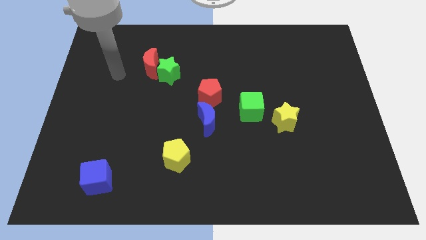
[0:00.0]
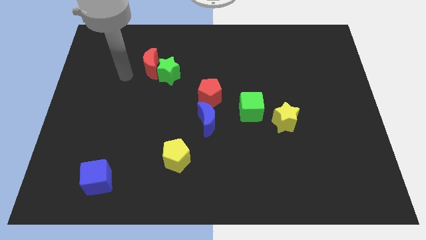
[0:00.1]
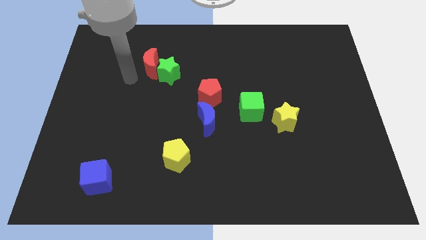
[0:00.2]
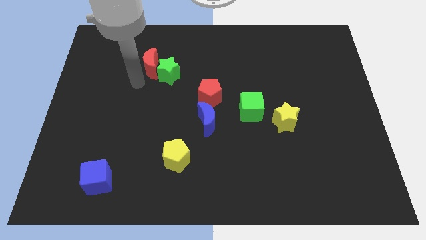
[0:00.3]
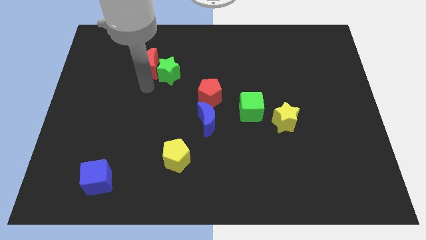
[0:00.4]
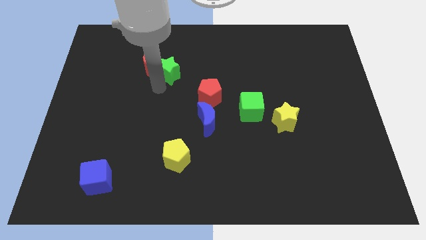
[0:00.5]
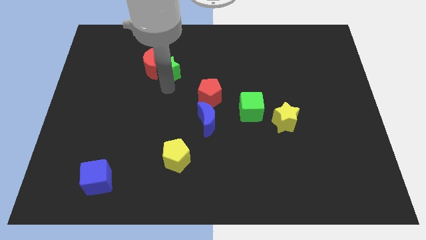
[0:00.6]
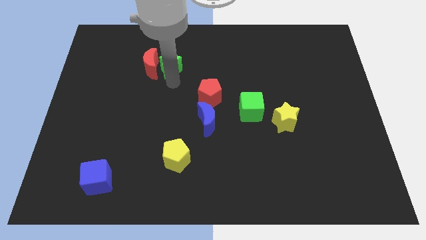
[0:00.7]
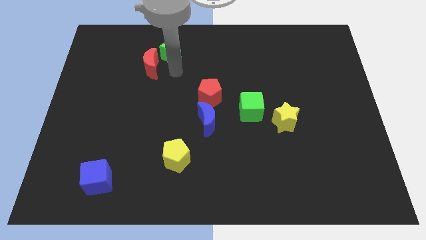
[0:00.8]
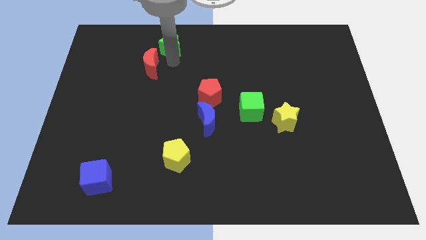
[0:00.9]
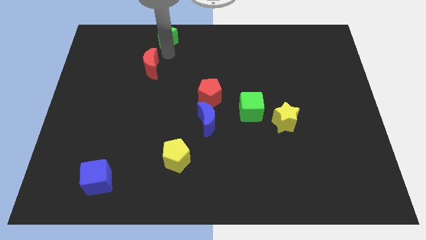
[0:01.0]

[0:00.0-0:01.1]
separate the red moon from the green star

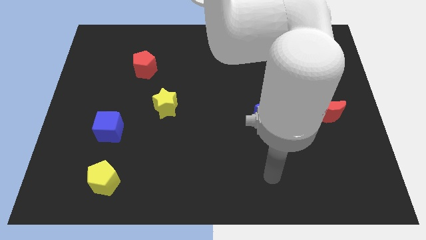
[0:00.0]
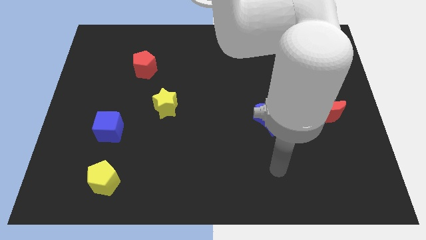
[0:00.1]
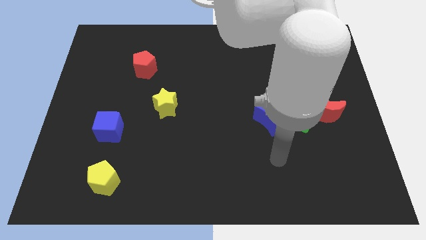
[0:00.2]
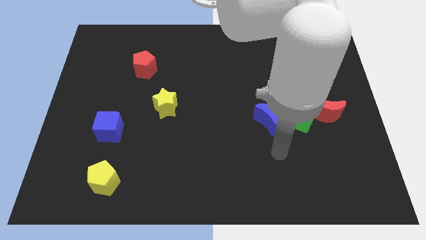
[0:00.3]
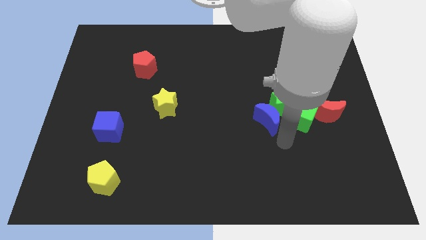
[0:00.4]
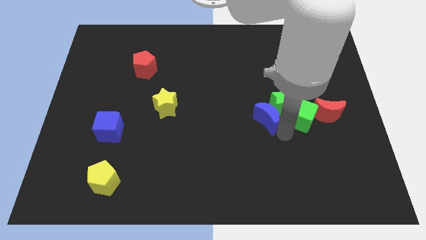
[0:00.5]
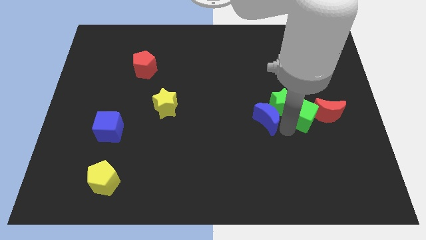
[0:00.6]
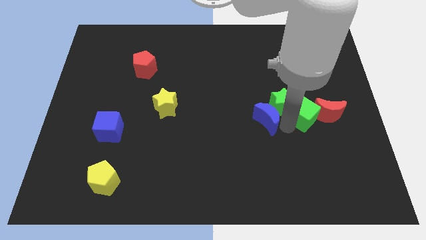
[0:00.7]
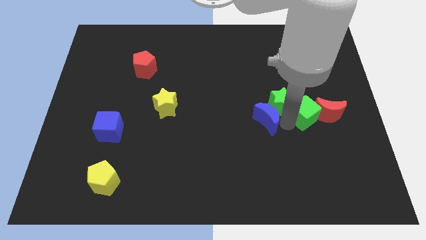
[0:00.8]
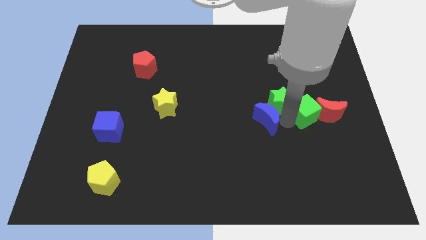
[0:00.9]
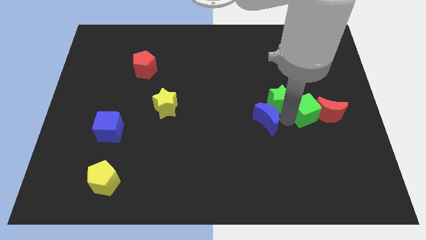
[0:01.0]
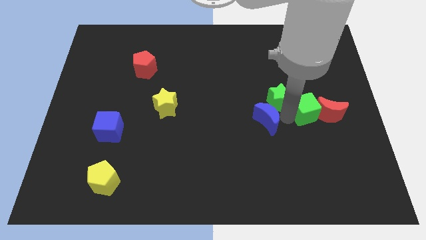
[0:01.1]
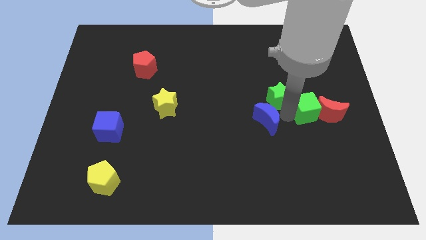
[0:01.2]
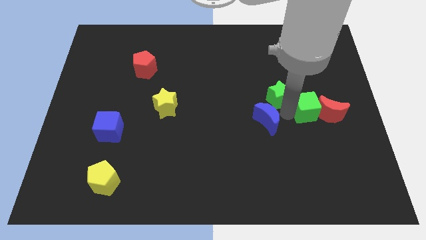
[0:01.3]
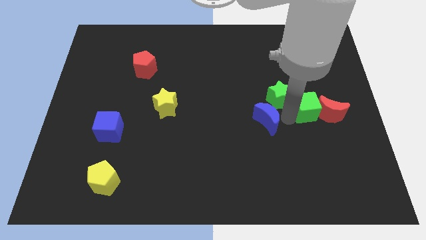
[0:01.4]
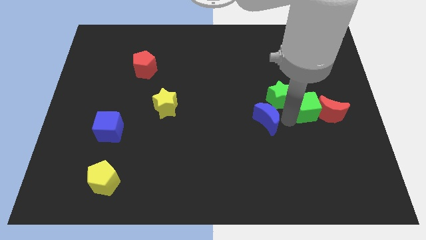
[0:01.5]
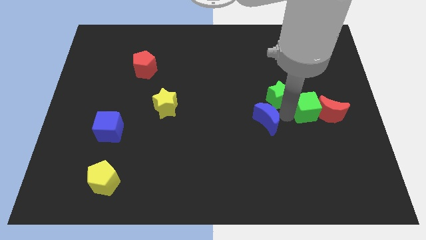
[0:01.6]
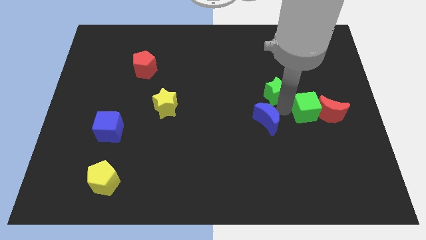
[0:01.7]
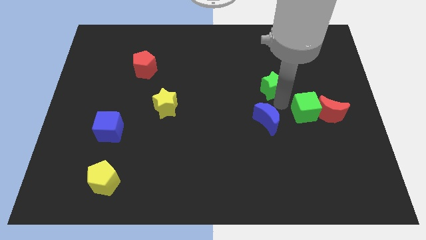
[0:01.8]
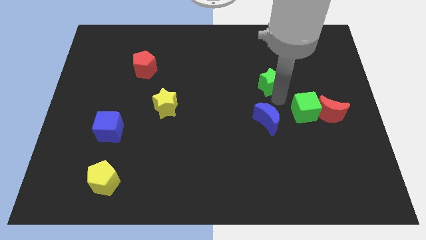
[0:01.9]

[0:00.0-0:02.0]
separate the green star from the green cube and blue moon

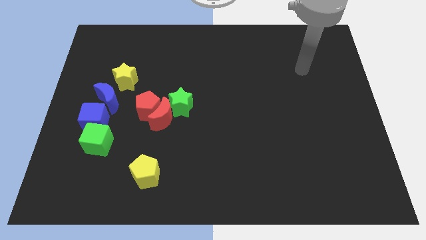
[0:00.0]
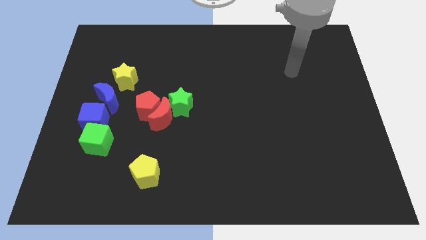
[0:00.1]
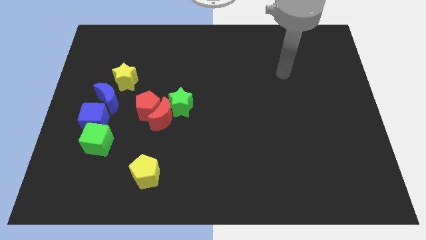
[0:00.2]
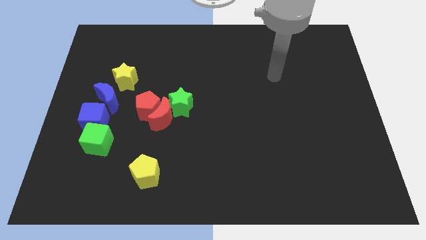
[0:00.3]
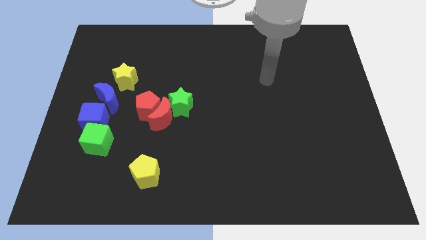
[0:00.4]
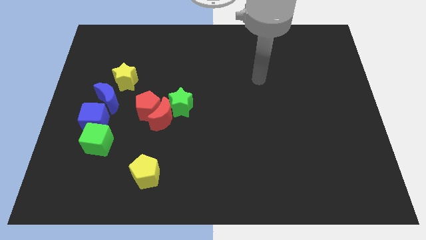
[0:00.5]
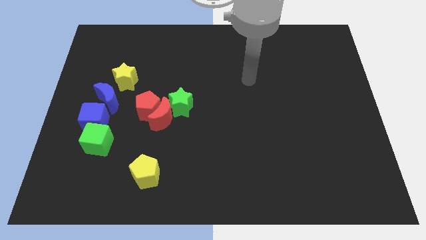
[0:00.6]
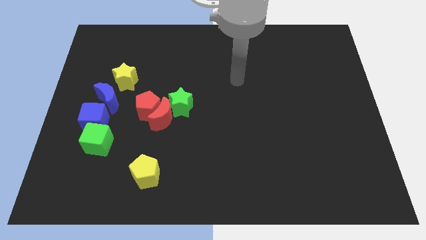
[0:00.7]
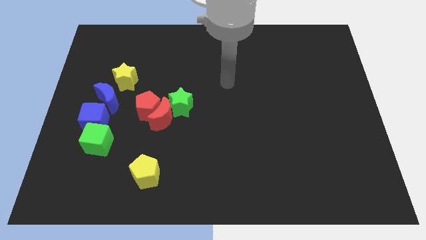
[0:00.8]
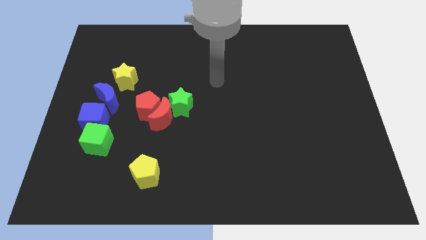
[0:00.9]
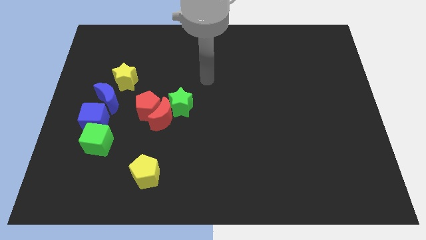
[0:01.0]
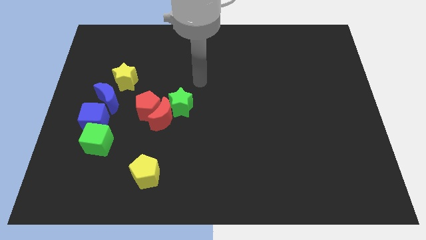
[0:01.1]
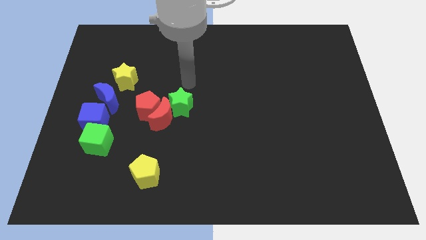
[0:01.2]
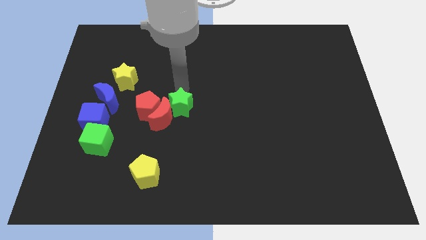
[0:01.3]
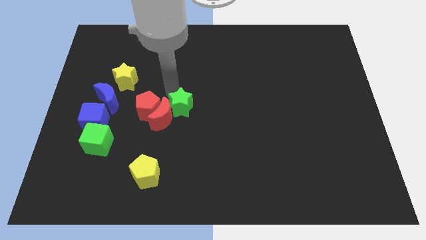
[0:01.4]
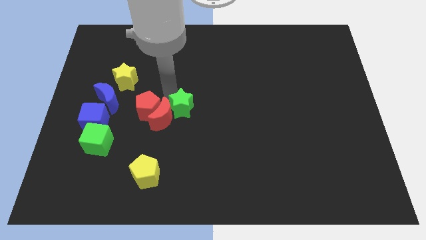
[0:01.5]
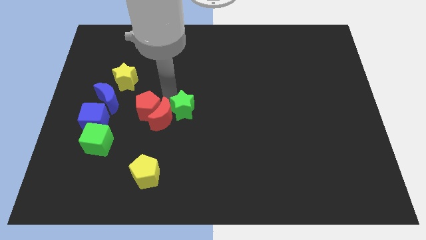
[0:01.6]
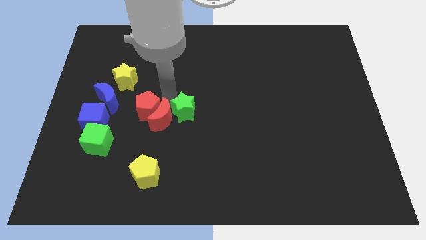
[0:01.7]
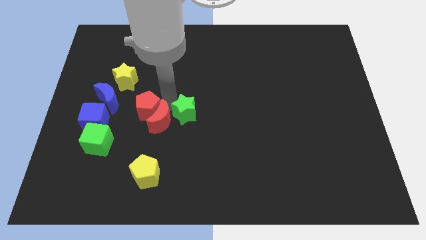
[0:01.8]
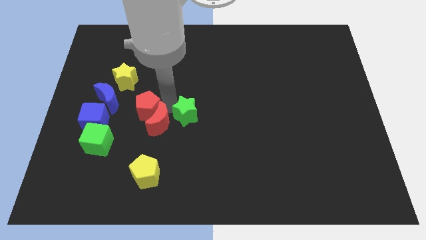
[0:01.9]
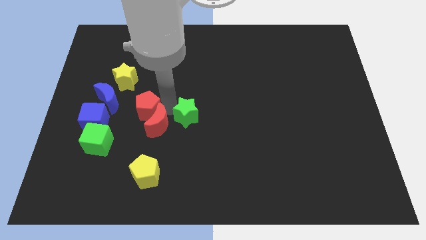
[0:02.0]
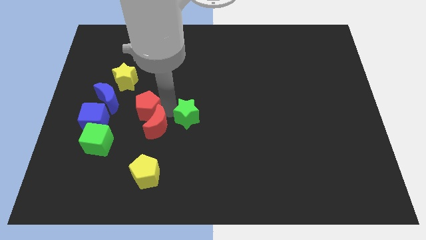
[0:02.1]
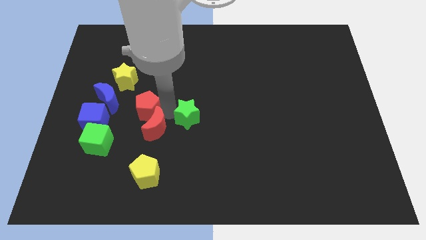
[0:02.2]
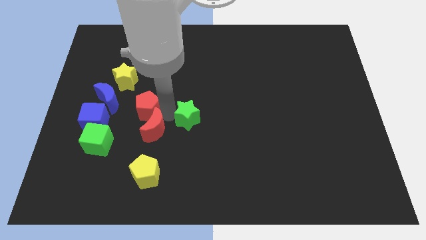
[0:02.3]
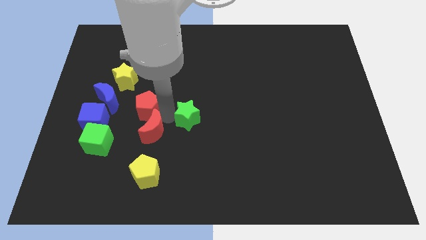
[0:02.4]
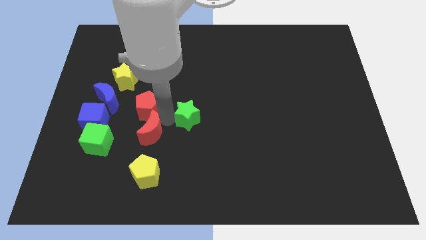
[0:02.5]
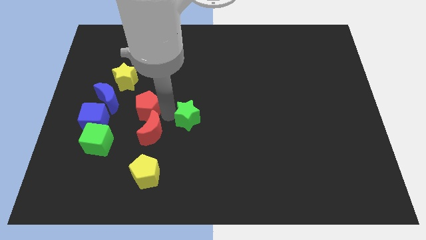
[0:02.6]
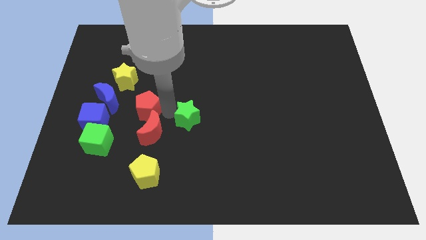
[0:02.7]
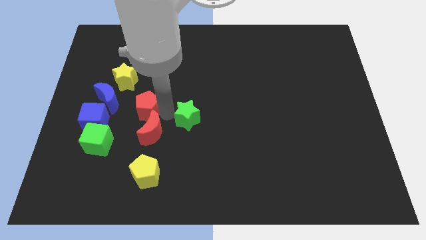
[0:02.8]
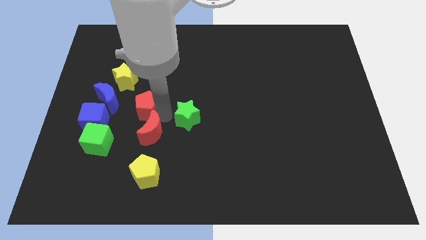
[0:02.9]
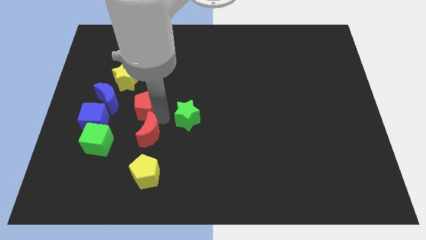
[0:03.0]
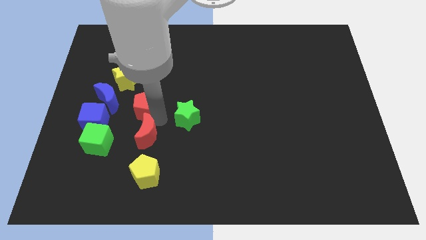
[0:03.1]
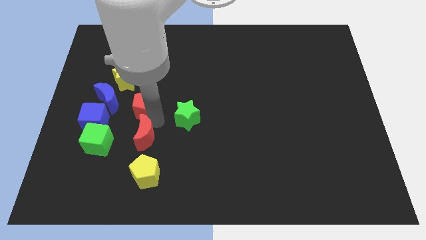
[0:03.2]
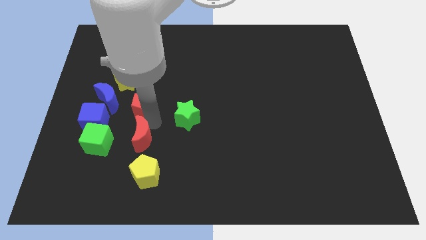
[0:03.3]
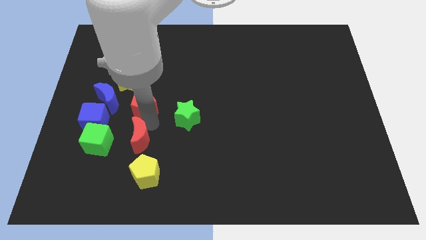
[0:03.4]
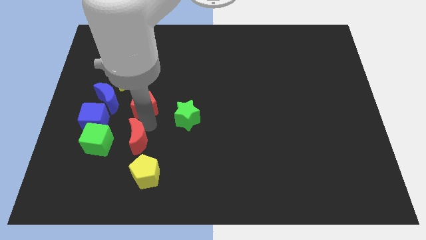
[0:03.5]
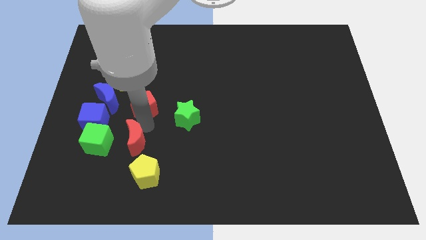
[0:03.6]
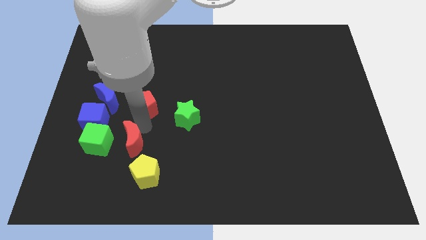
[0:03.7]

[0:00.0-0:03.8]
separate the red moon from the red pentagon and green star

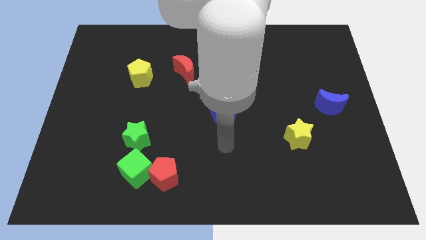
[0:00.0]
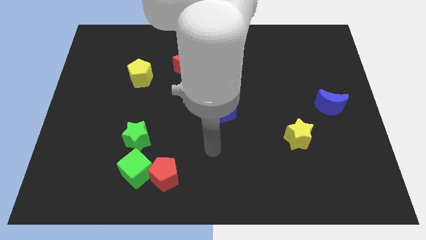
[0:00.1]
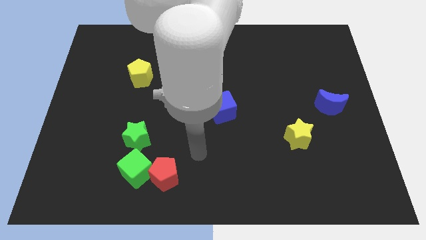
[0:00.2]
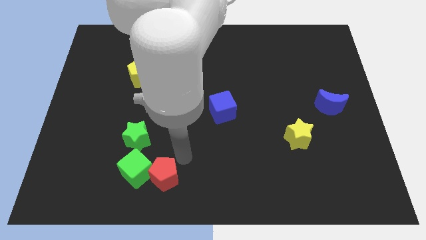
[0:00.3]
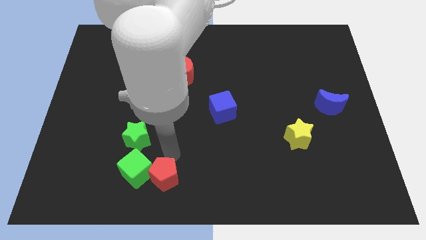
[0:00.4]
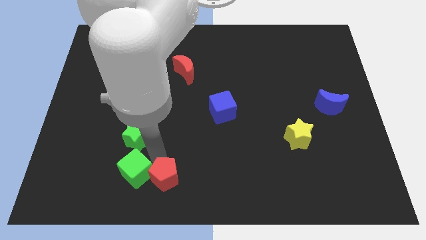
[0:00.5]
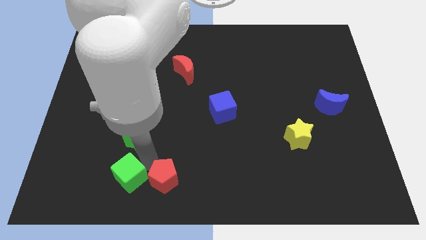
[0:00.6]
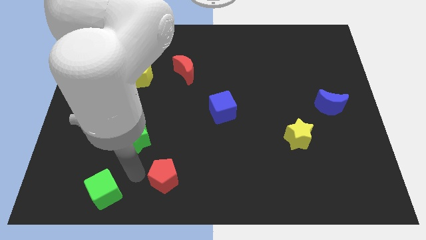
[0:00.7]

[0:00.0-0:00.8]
pull the red pentagon apart from the green cube

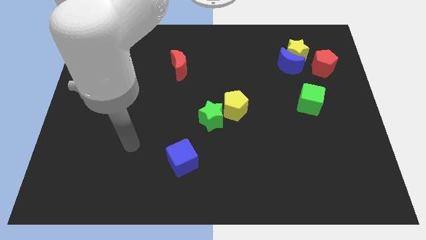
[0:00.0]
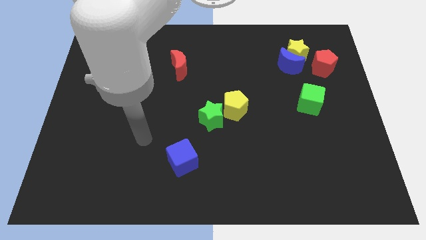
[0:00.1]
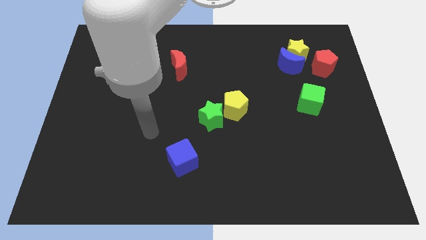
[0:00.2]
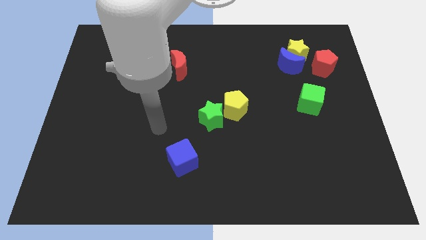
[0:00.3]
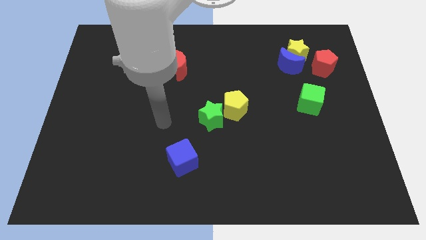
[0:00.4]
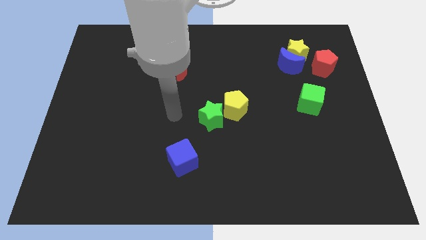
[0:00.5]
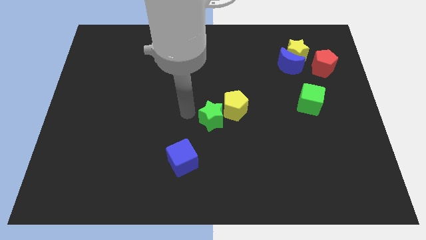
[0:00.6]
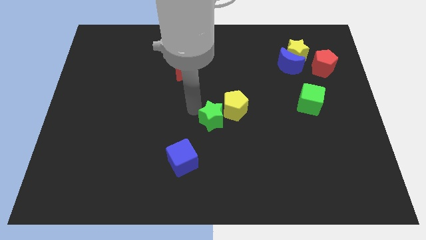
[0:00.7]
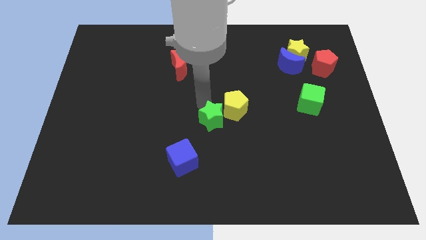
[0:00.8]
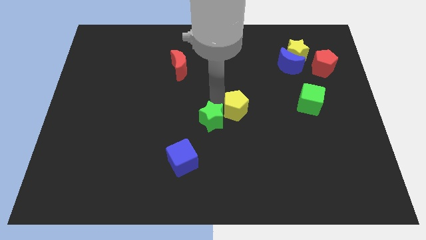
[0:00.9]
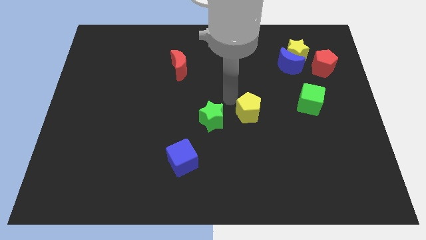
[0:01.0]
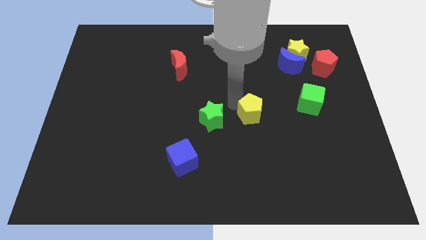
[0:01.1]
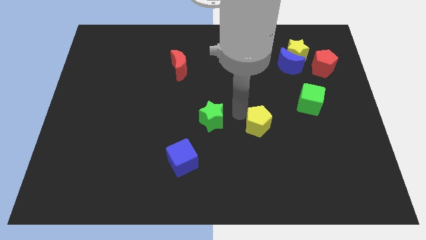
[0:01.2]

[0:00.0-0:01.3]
move the green star away from the yellow pentagon

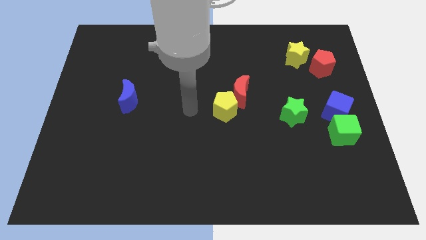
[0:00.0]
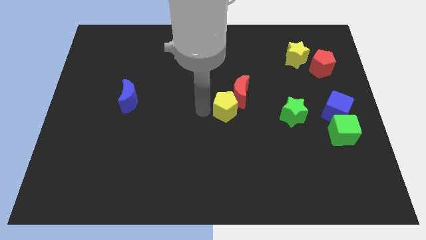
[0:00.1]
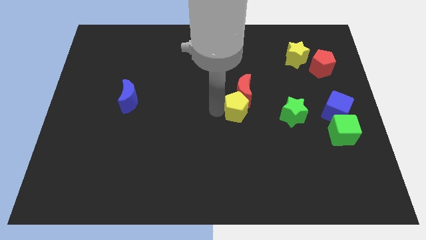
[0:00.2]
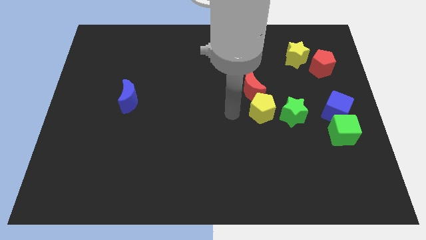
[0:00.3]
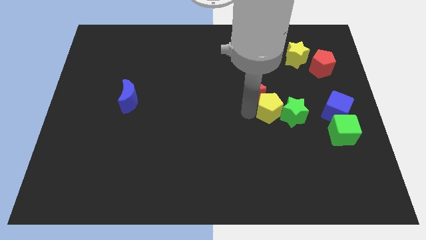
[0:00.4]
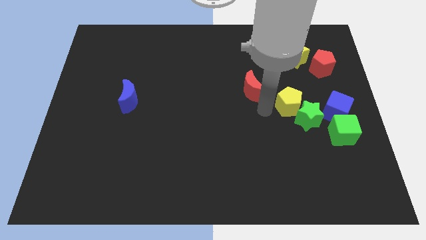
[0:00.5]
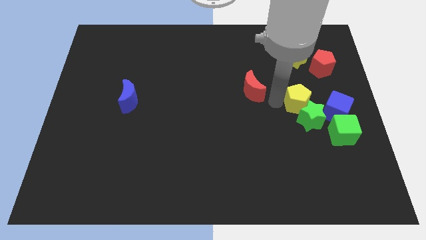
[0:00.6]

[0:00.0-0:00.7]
separate the red moon from the yellow pentagon
